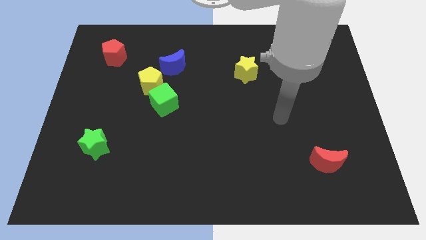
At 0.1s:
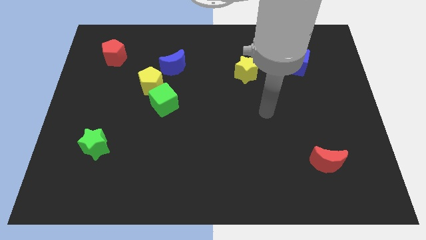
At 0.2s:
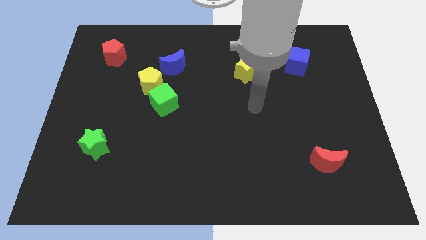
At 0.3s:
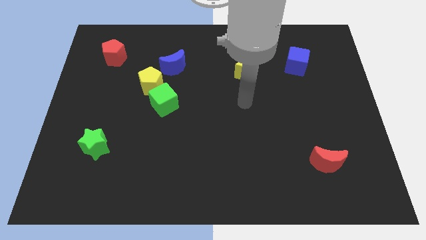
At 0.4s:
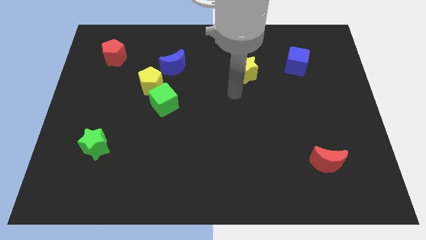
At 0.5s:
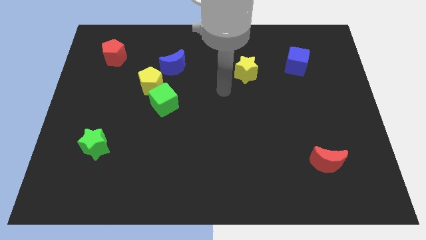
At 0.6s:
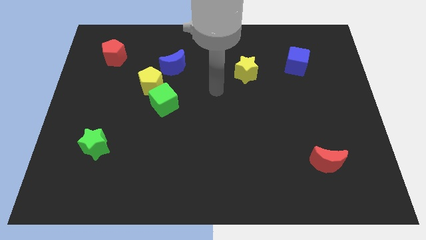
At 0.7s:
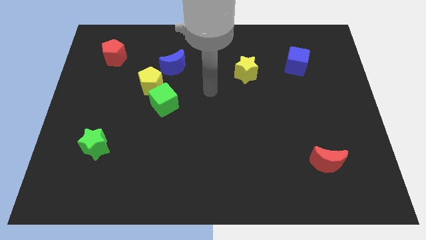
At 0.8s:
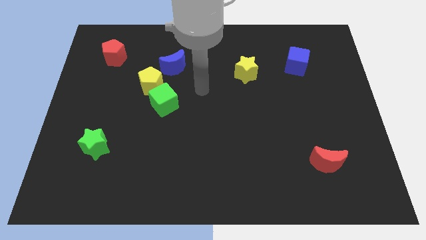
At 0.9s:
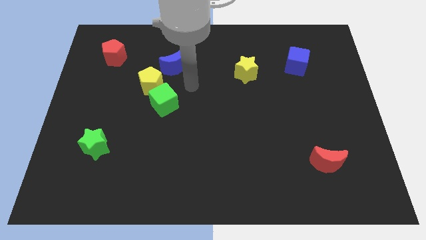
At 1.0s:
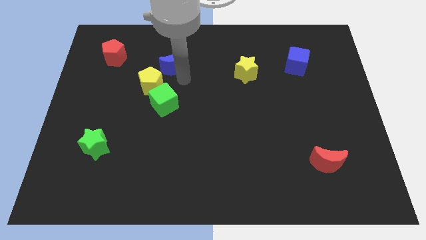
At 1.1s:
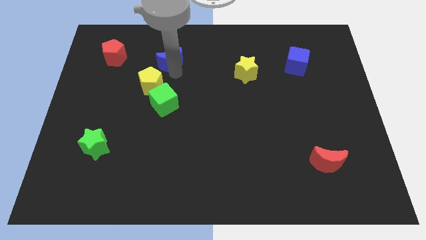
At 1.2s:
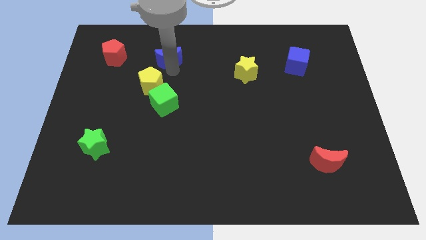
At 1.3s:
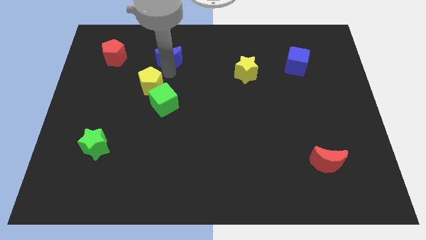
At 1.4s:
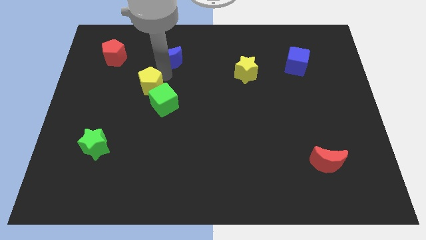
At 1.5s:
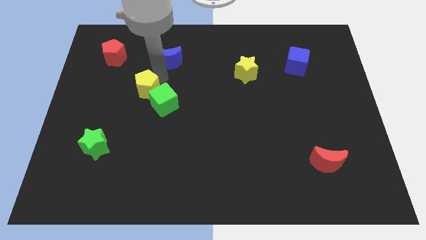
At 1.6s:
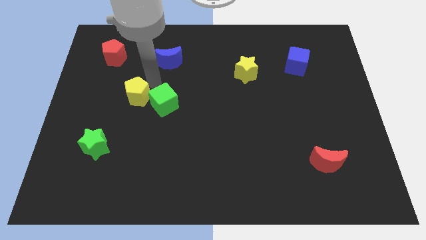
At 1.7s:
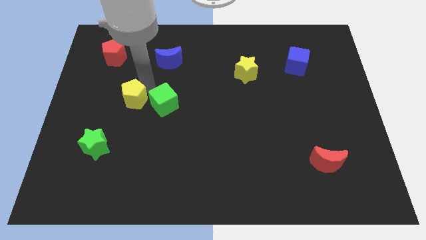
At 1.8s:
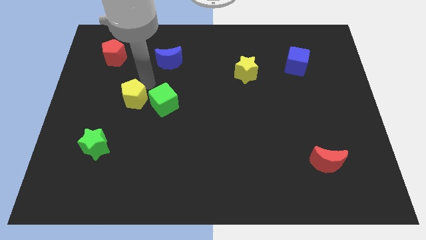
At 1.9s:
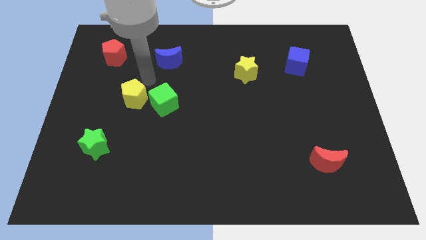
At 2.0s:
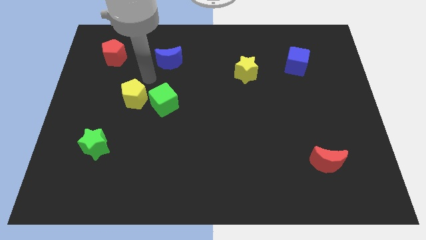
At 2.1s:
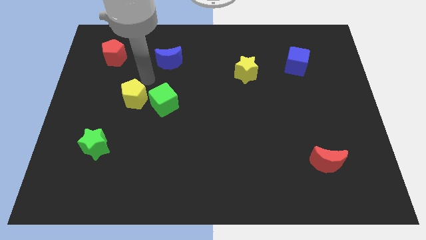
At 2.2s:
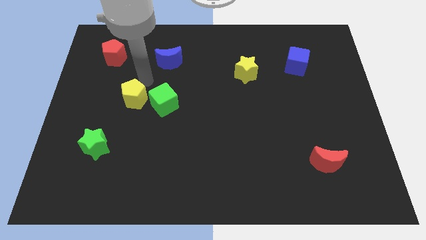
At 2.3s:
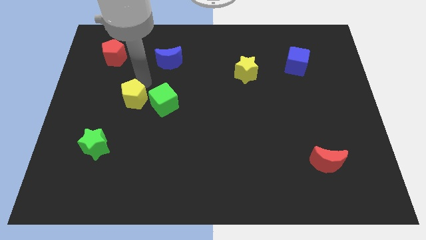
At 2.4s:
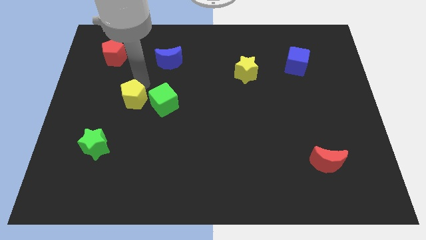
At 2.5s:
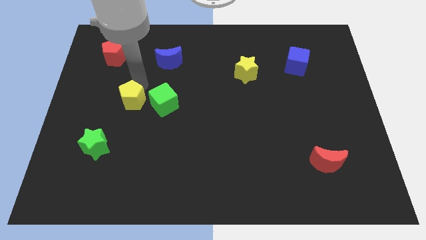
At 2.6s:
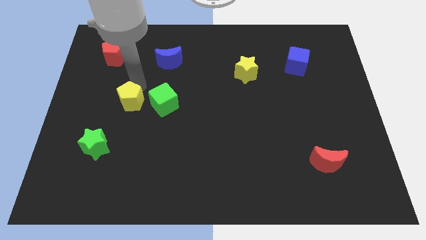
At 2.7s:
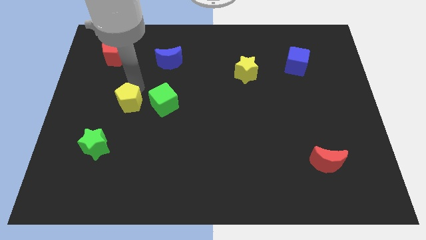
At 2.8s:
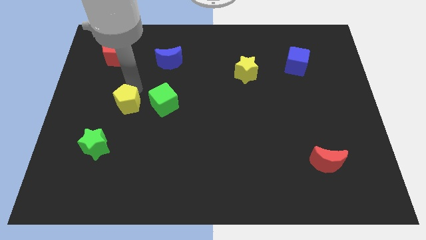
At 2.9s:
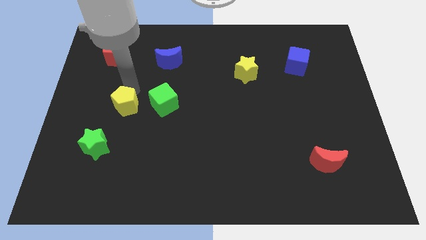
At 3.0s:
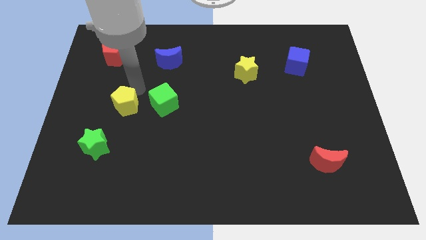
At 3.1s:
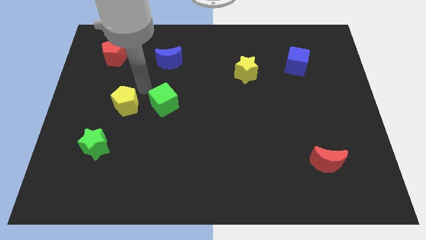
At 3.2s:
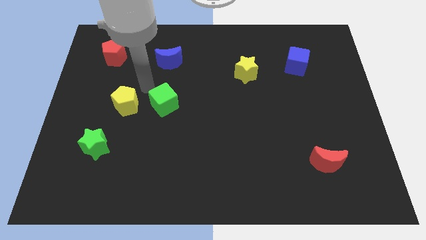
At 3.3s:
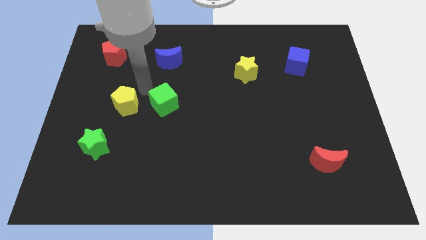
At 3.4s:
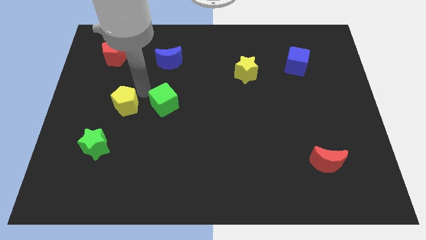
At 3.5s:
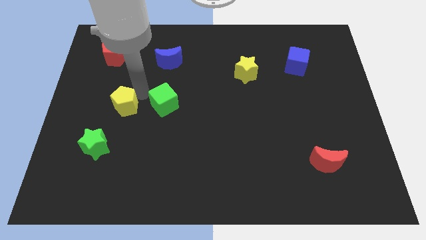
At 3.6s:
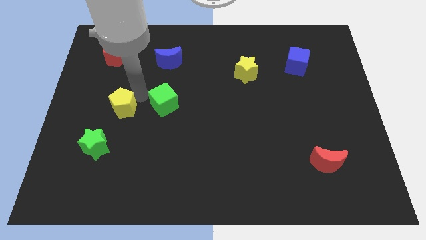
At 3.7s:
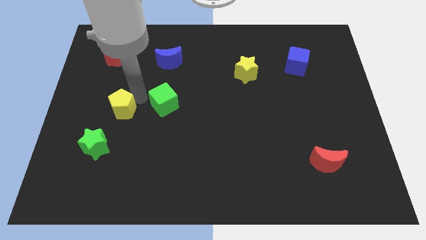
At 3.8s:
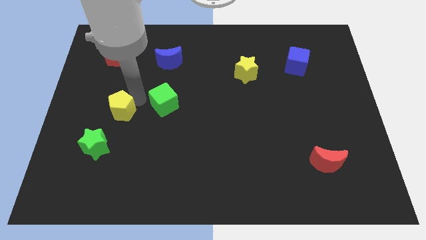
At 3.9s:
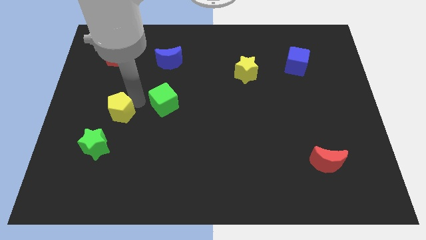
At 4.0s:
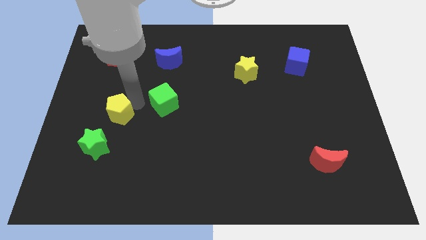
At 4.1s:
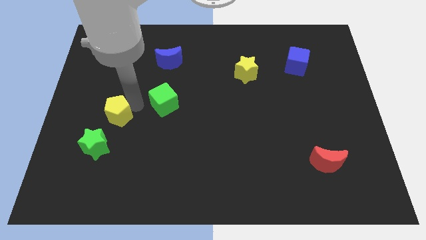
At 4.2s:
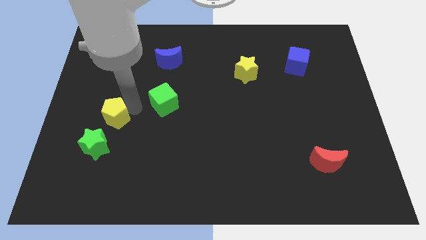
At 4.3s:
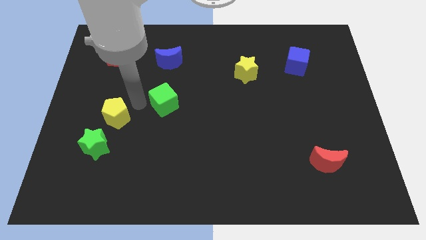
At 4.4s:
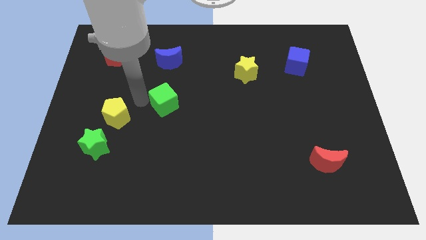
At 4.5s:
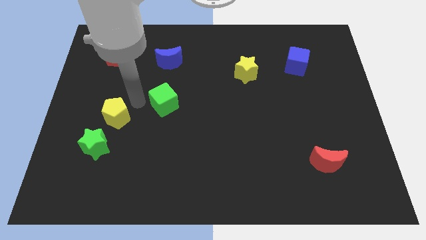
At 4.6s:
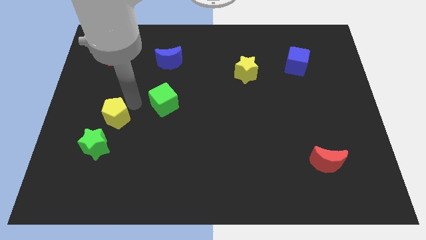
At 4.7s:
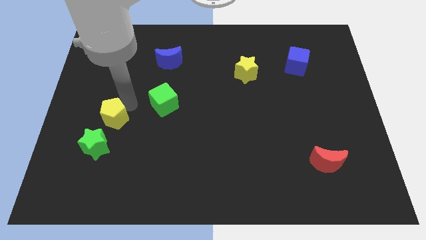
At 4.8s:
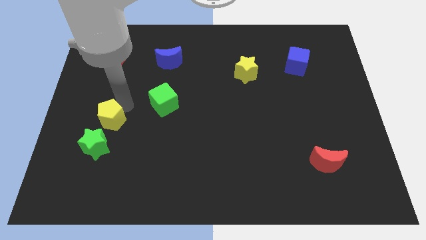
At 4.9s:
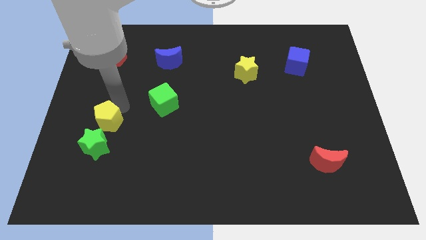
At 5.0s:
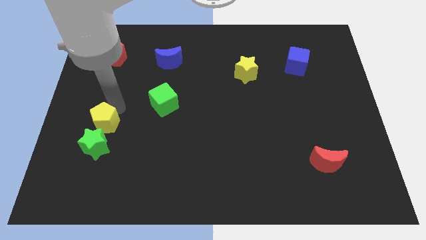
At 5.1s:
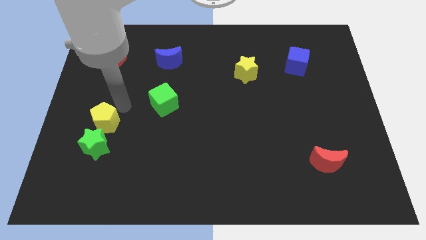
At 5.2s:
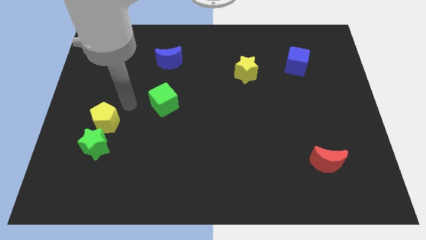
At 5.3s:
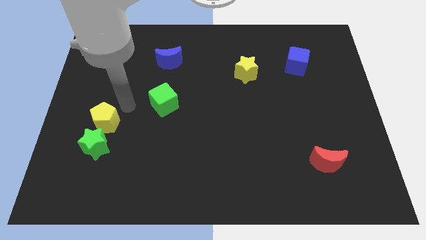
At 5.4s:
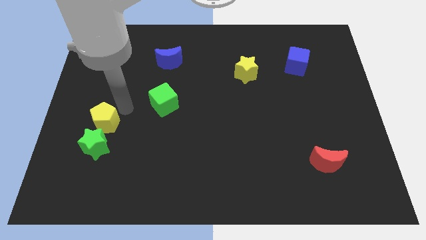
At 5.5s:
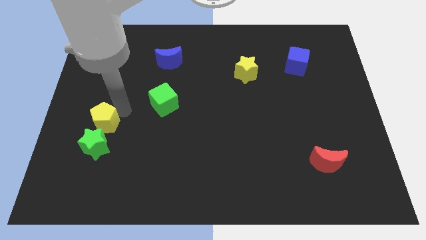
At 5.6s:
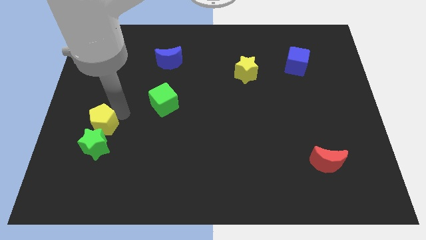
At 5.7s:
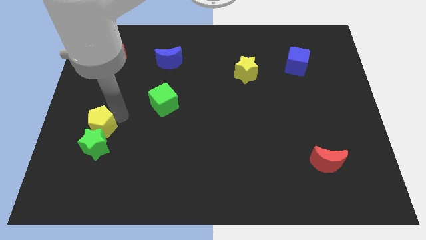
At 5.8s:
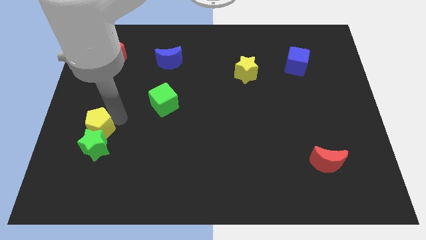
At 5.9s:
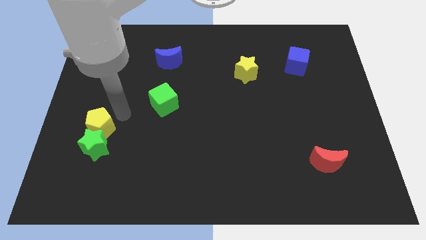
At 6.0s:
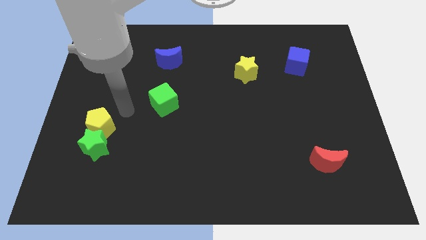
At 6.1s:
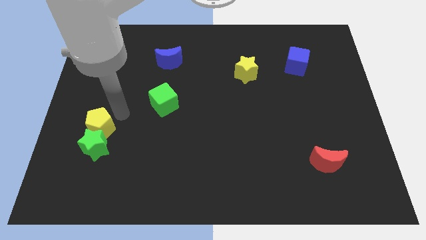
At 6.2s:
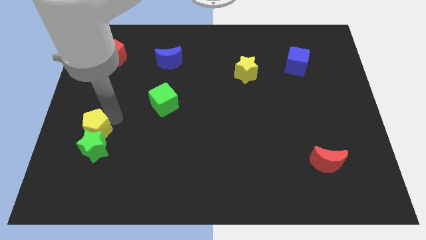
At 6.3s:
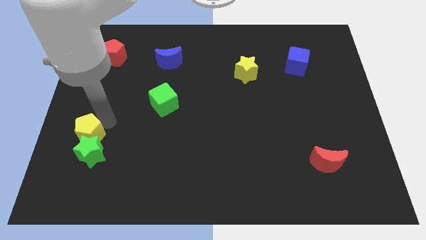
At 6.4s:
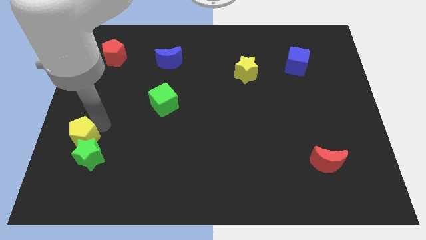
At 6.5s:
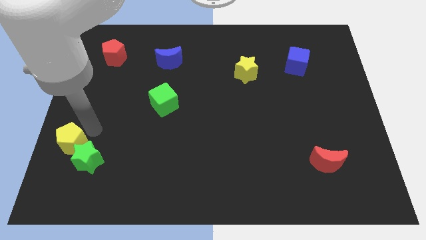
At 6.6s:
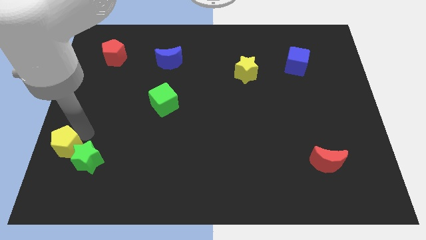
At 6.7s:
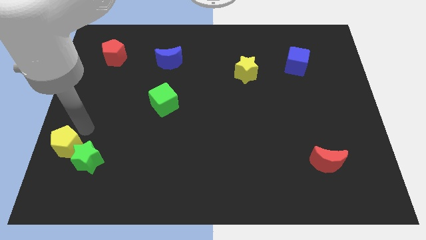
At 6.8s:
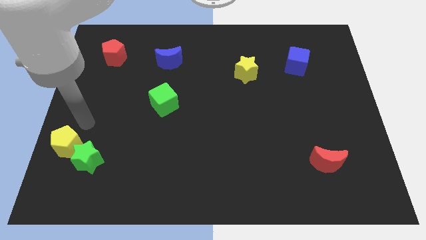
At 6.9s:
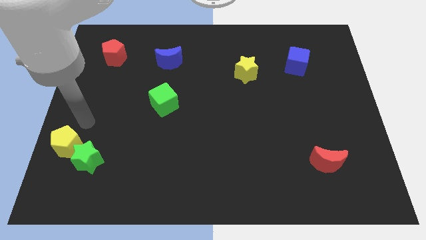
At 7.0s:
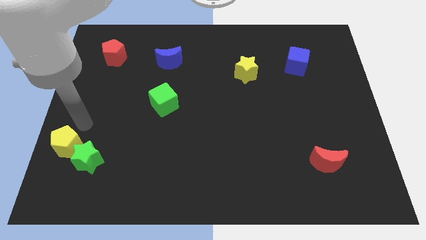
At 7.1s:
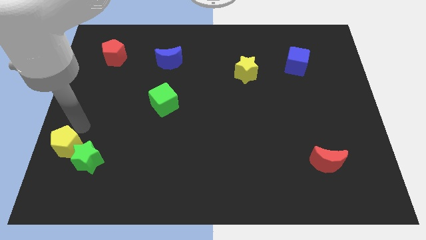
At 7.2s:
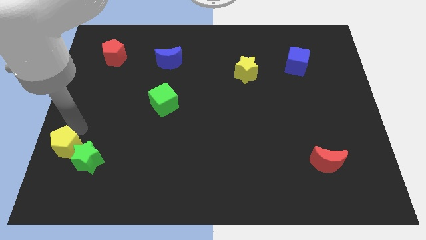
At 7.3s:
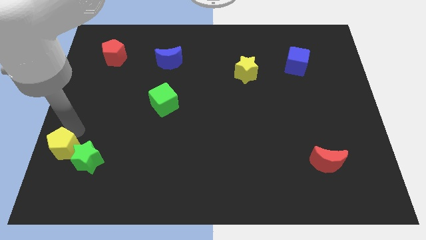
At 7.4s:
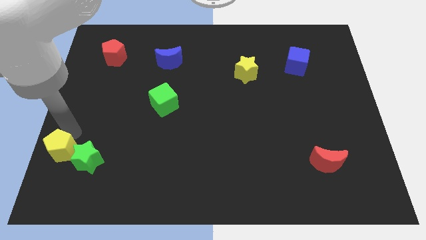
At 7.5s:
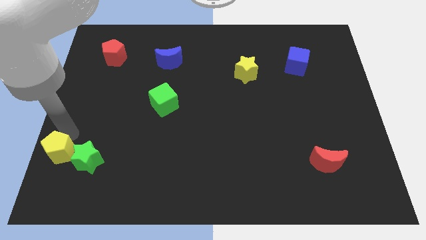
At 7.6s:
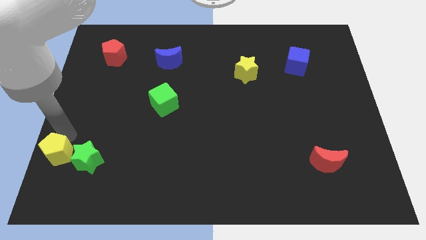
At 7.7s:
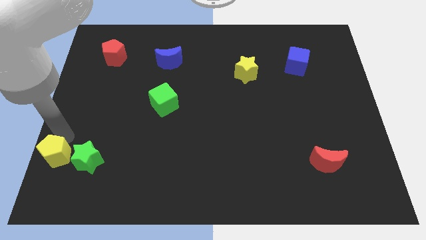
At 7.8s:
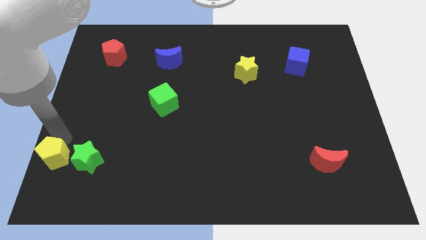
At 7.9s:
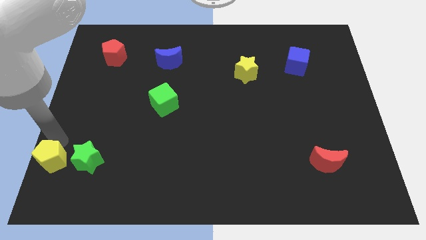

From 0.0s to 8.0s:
put the yellow pentagon to the lower left corner

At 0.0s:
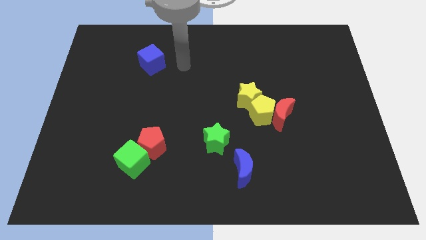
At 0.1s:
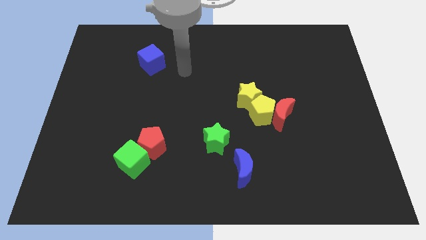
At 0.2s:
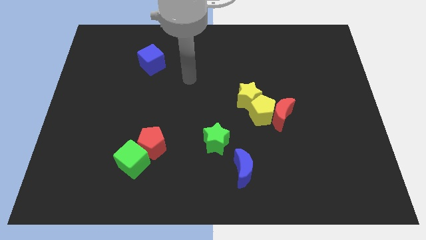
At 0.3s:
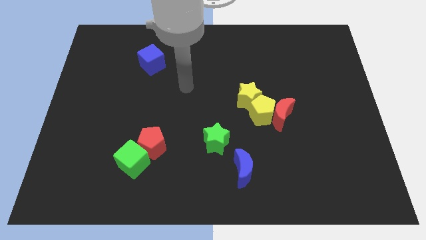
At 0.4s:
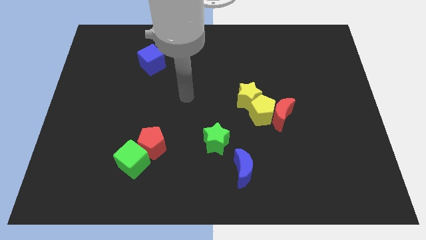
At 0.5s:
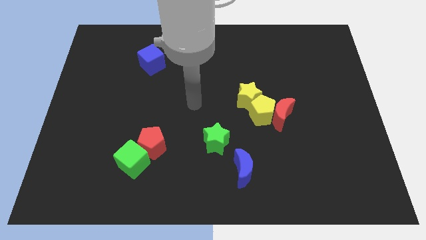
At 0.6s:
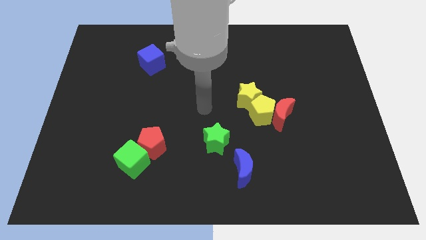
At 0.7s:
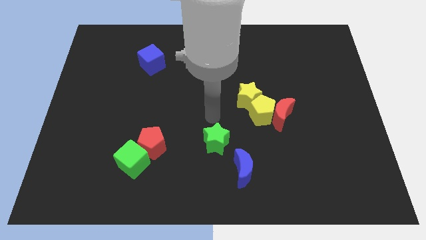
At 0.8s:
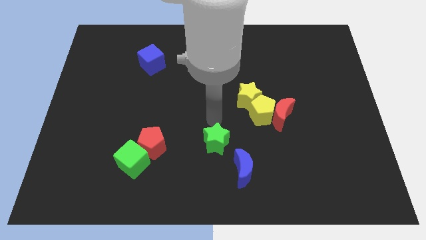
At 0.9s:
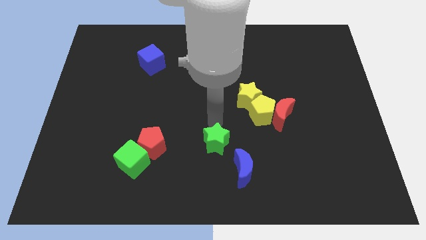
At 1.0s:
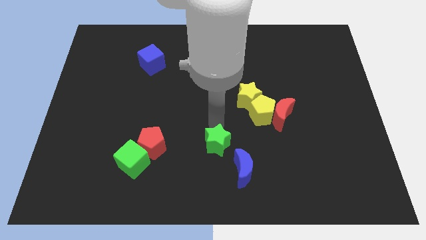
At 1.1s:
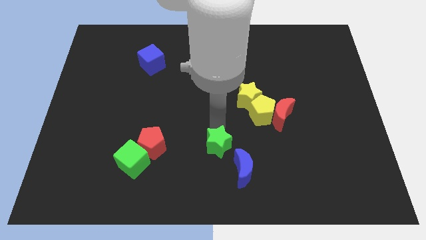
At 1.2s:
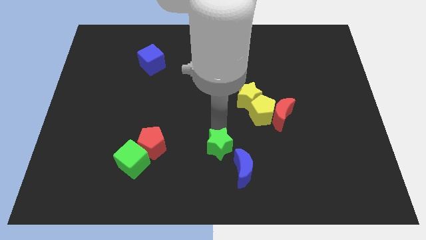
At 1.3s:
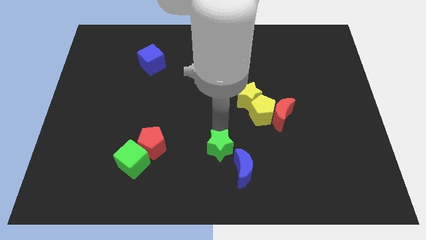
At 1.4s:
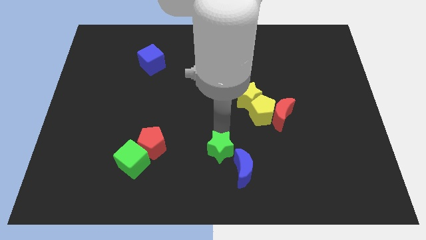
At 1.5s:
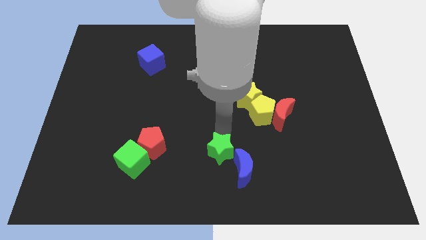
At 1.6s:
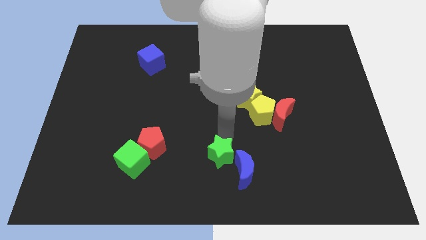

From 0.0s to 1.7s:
slide the green star to the bottom
